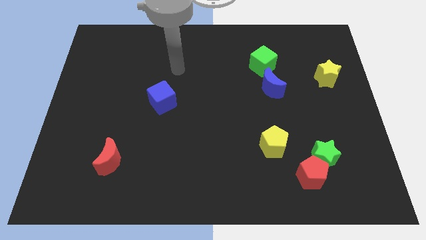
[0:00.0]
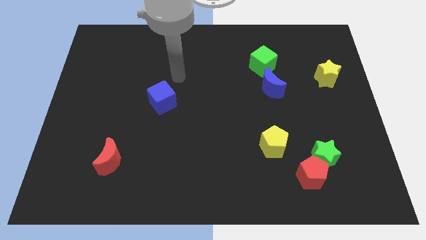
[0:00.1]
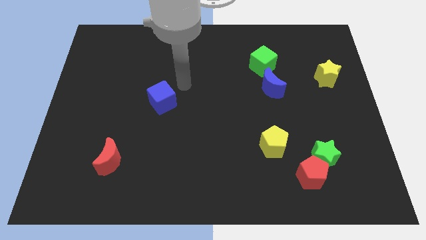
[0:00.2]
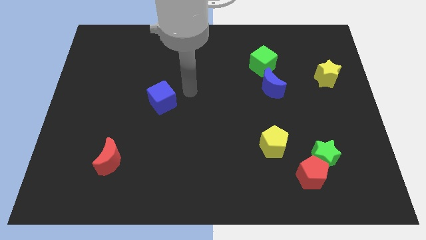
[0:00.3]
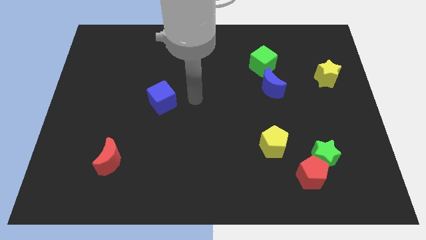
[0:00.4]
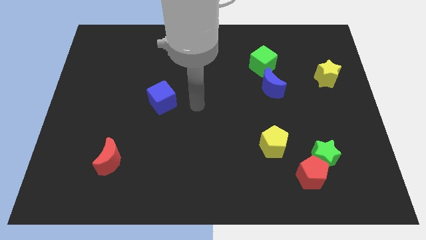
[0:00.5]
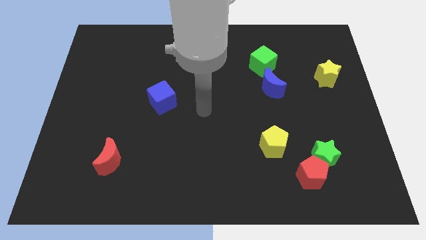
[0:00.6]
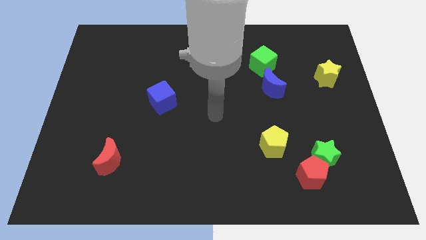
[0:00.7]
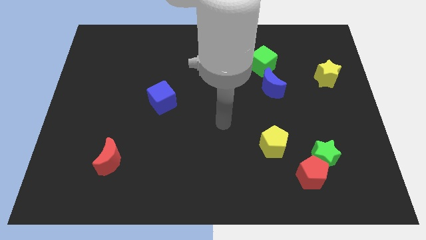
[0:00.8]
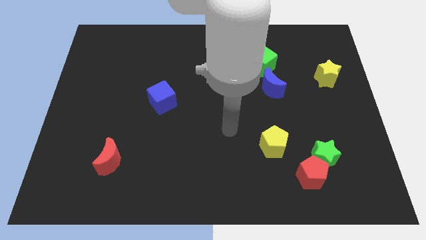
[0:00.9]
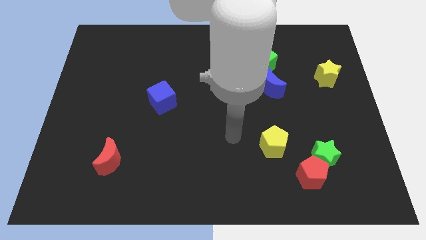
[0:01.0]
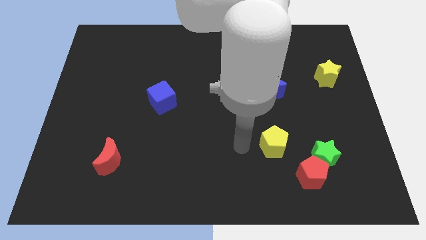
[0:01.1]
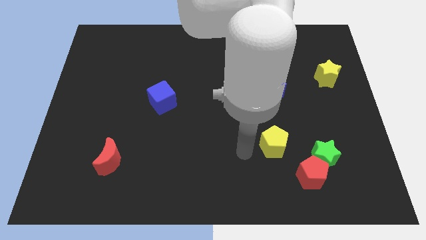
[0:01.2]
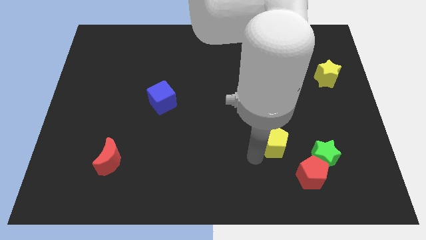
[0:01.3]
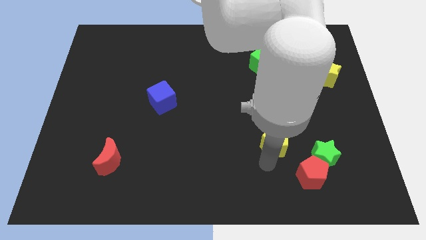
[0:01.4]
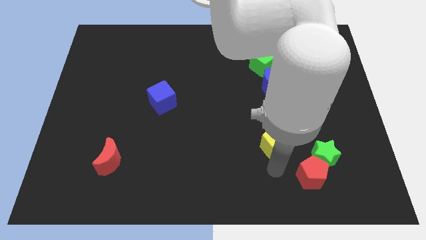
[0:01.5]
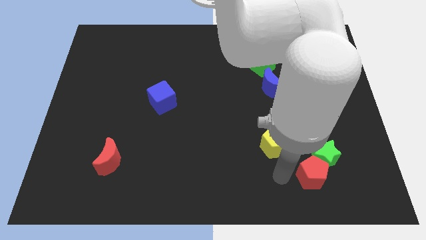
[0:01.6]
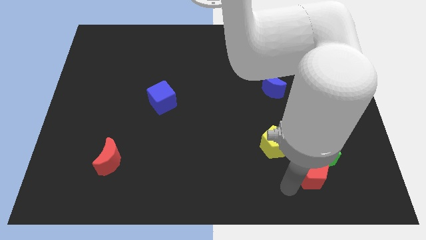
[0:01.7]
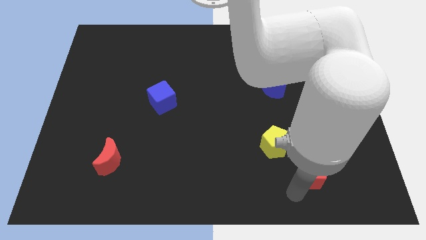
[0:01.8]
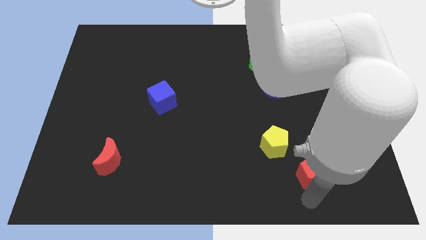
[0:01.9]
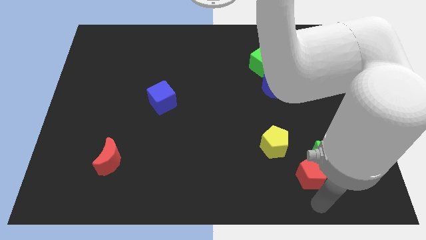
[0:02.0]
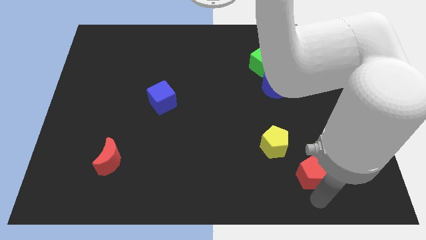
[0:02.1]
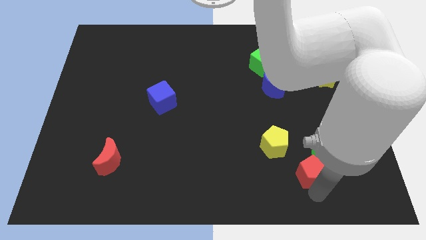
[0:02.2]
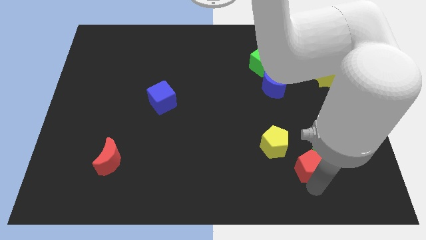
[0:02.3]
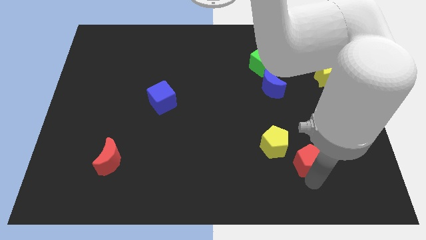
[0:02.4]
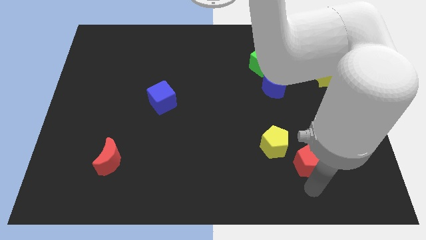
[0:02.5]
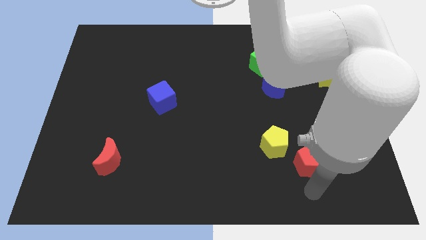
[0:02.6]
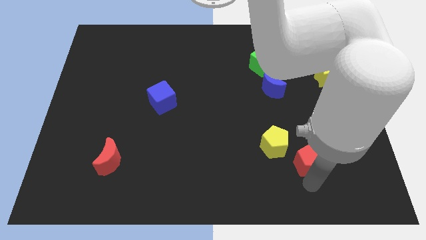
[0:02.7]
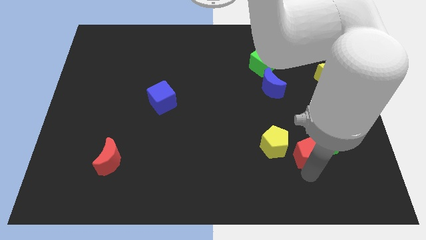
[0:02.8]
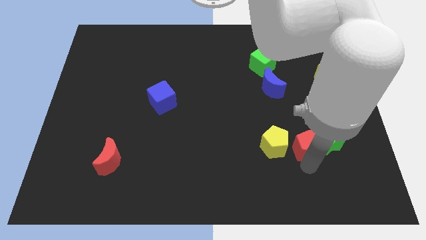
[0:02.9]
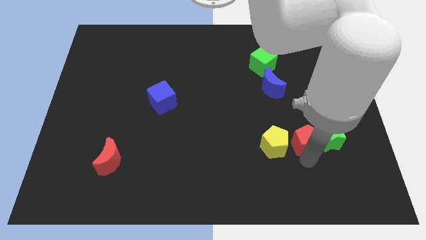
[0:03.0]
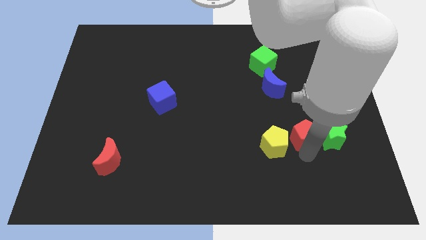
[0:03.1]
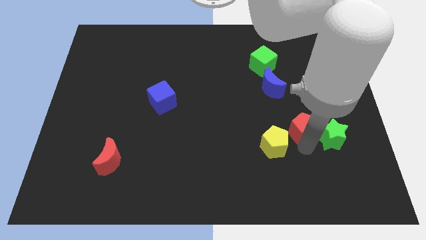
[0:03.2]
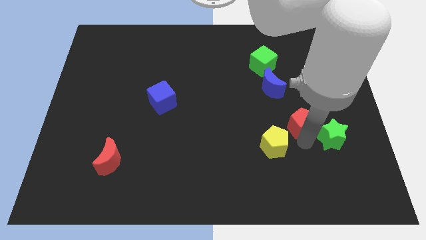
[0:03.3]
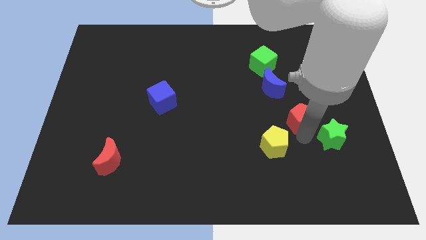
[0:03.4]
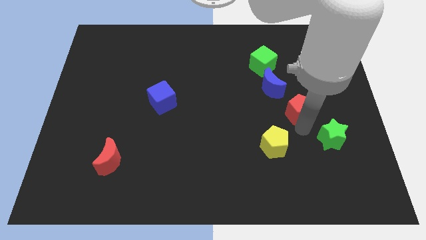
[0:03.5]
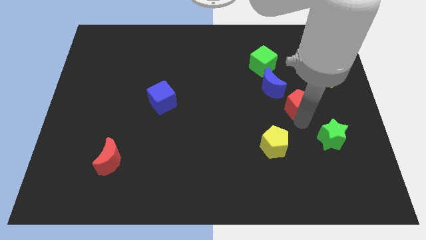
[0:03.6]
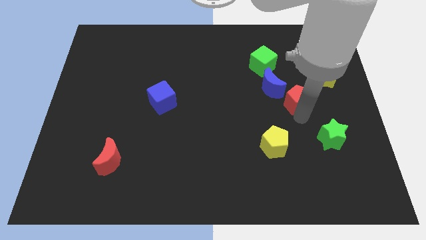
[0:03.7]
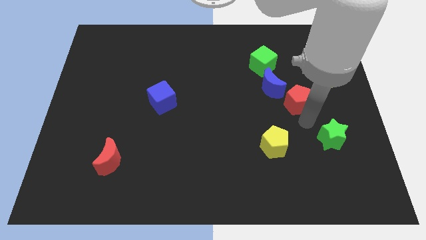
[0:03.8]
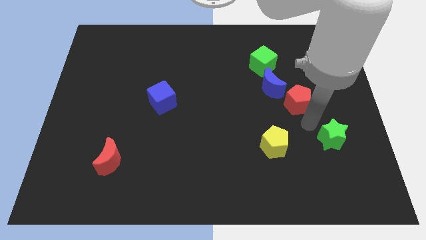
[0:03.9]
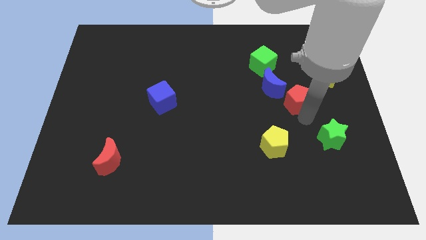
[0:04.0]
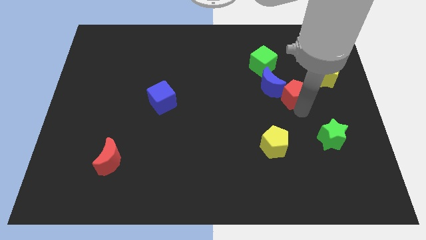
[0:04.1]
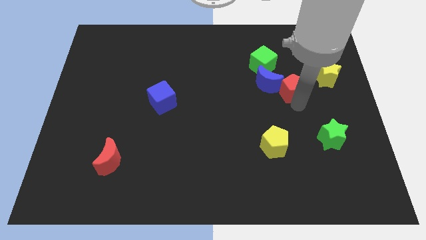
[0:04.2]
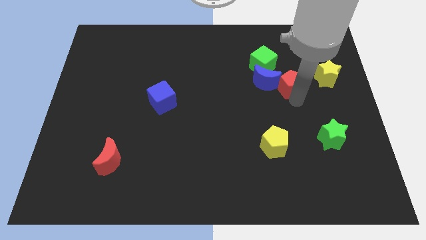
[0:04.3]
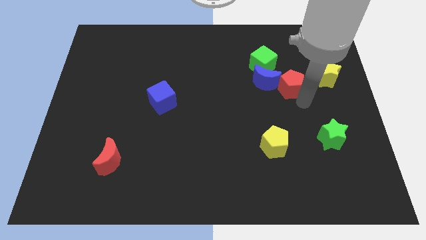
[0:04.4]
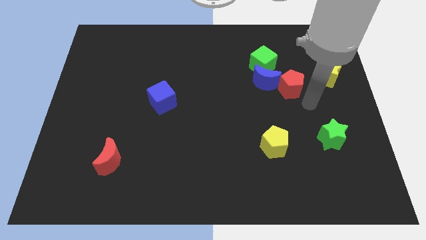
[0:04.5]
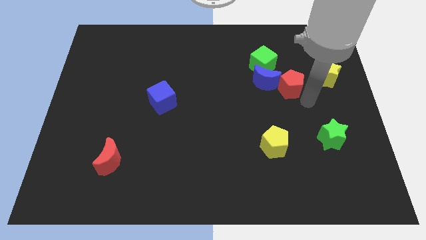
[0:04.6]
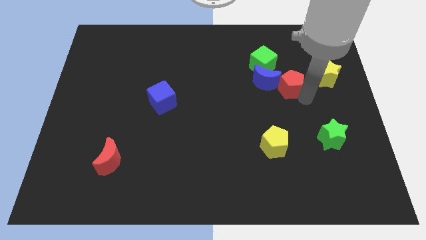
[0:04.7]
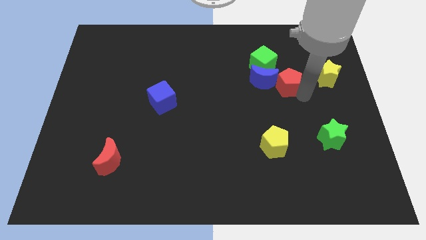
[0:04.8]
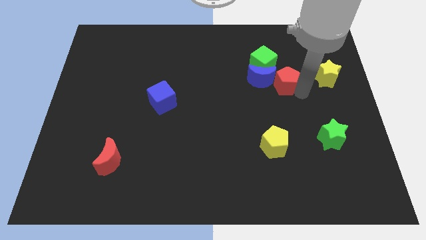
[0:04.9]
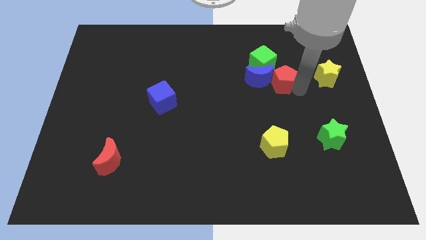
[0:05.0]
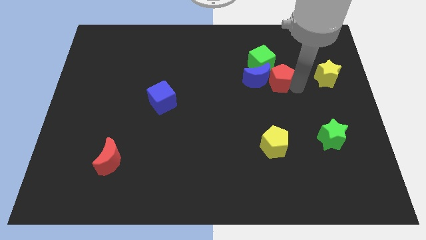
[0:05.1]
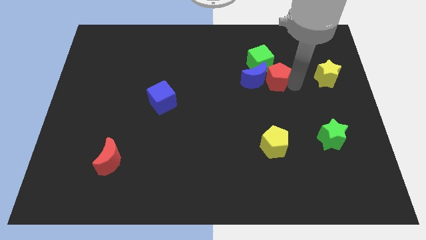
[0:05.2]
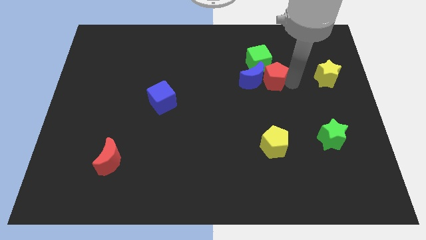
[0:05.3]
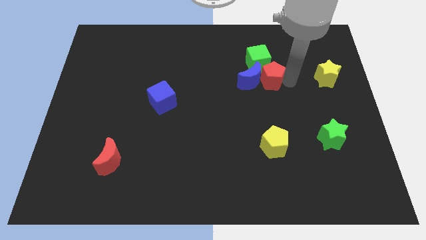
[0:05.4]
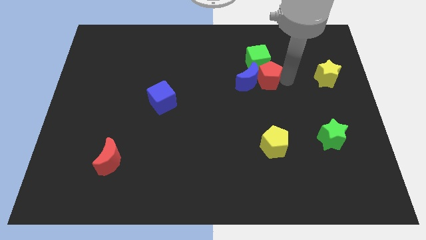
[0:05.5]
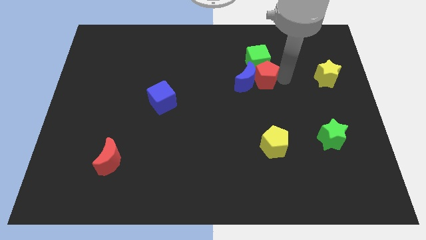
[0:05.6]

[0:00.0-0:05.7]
push the red pentagon to the green cube

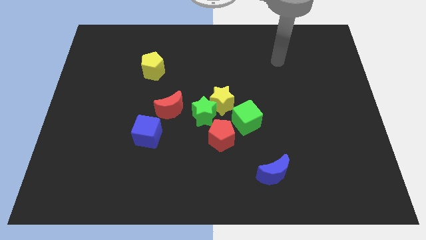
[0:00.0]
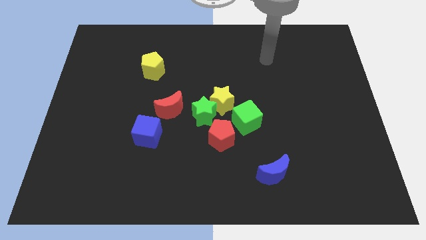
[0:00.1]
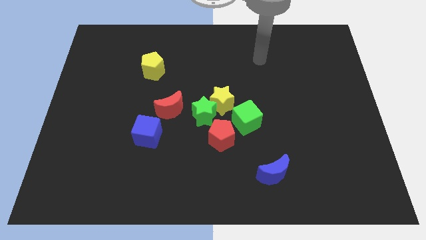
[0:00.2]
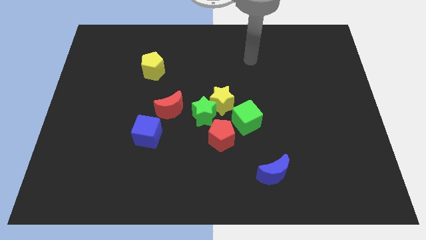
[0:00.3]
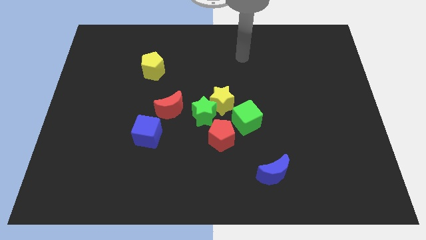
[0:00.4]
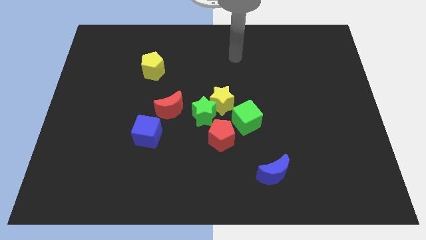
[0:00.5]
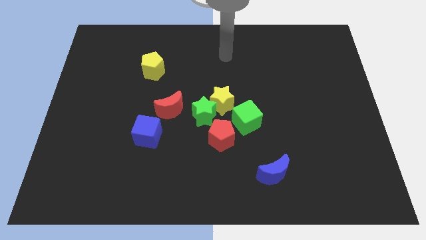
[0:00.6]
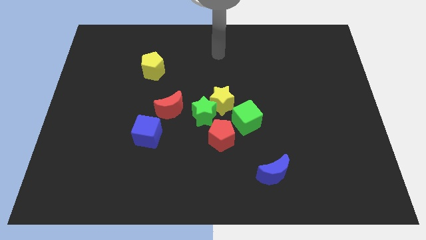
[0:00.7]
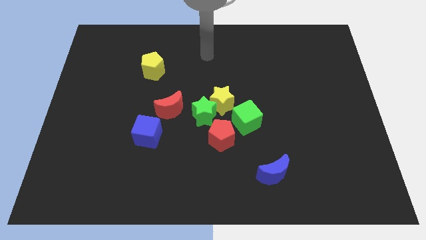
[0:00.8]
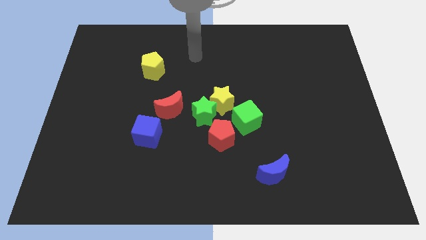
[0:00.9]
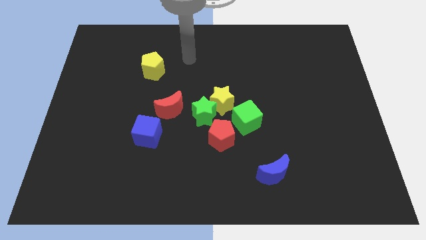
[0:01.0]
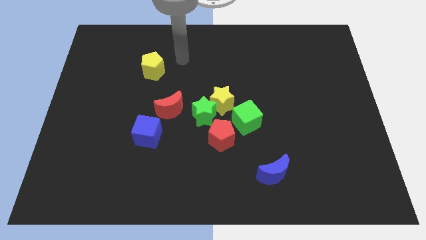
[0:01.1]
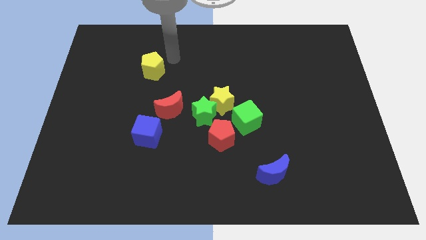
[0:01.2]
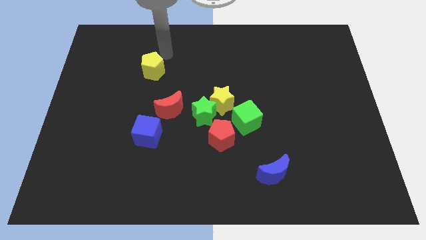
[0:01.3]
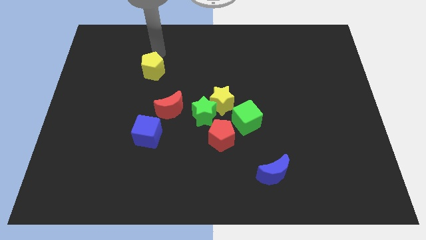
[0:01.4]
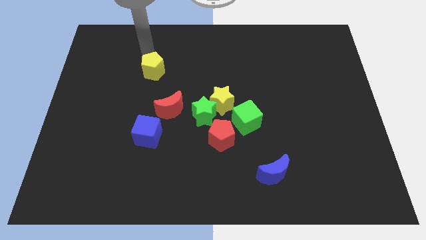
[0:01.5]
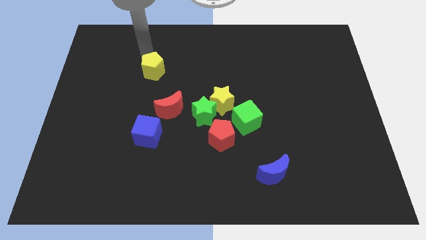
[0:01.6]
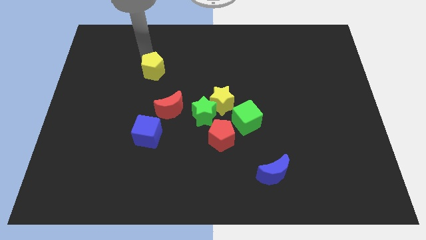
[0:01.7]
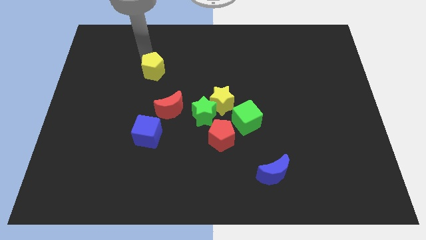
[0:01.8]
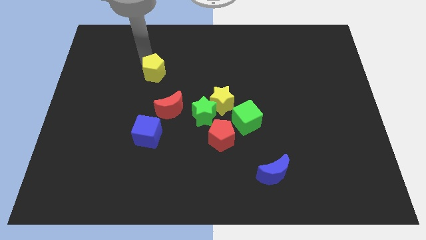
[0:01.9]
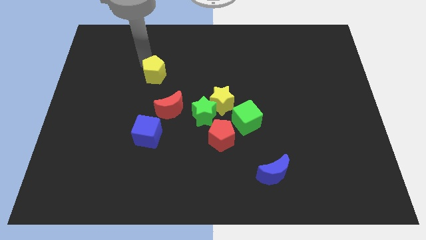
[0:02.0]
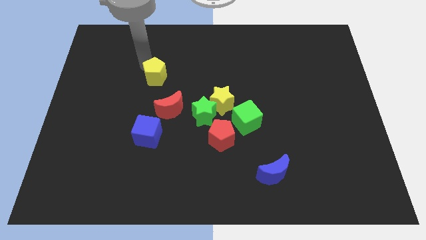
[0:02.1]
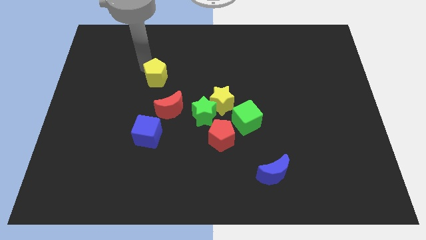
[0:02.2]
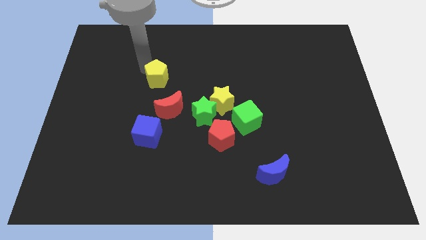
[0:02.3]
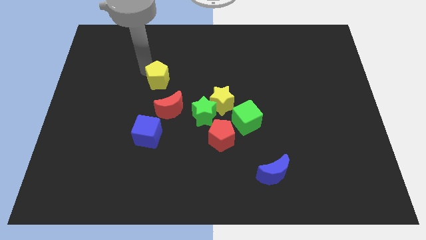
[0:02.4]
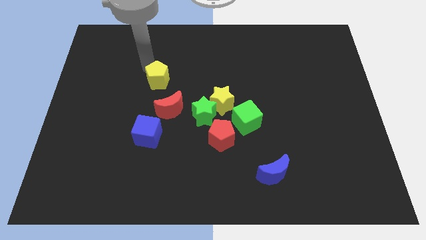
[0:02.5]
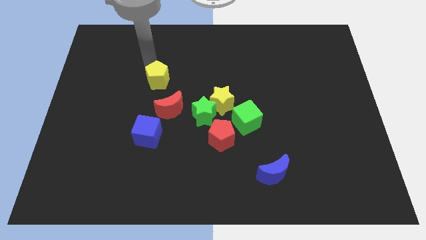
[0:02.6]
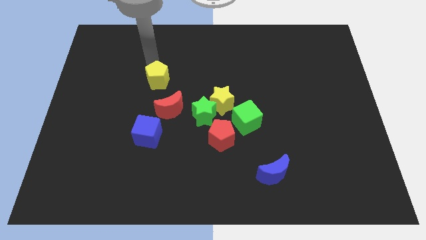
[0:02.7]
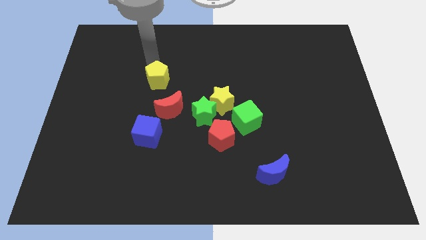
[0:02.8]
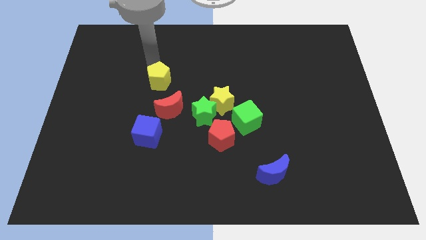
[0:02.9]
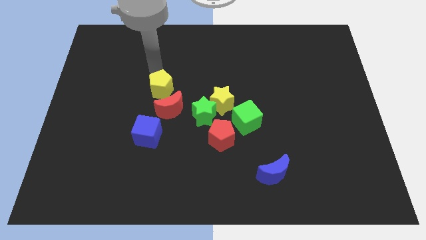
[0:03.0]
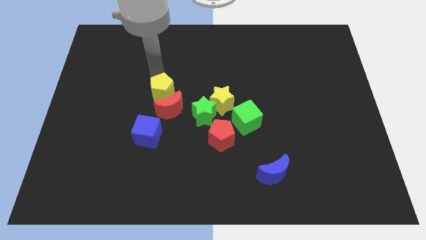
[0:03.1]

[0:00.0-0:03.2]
slide the yellow pentagon close to the red moon
